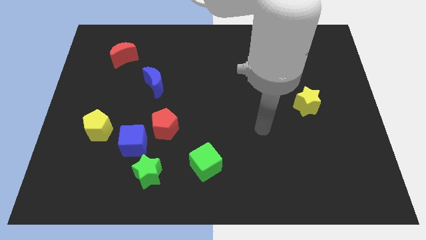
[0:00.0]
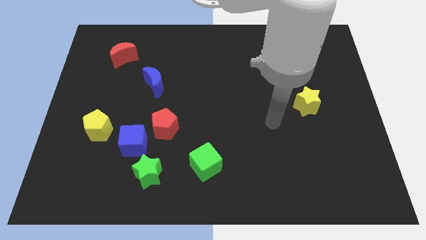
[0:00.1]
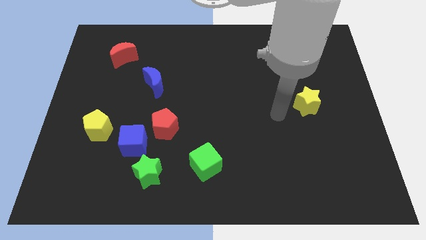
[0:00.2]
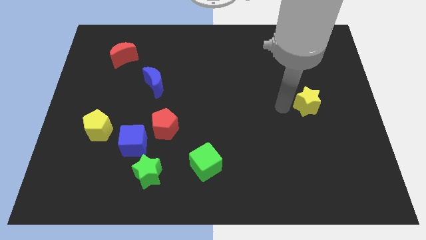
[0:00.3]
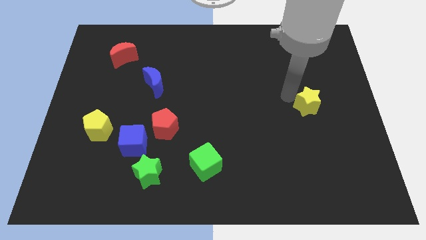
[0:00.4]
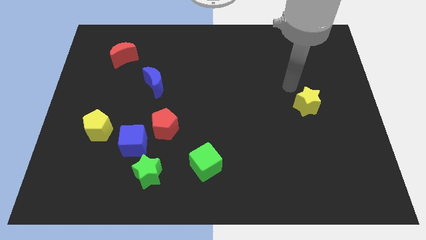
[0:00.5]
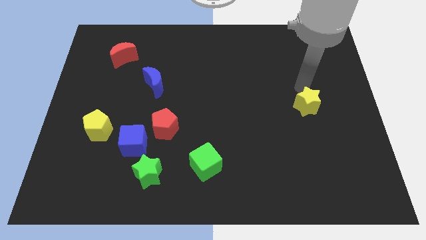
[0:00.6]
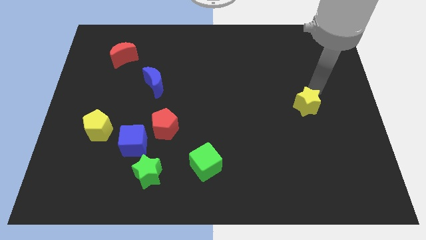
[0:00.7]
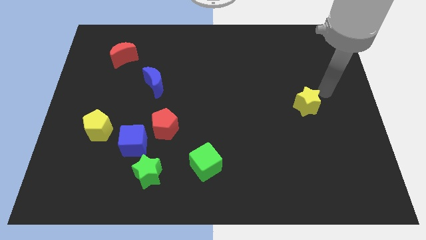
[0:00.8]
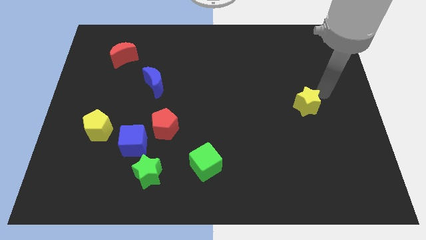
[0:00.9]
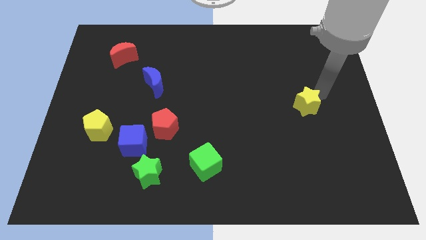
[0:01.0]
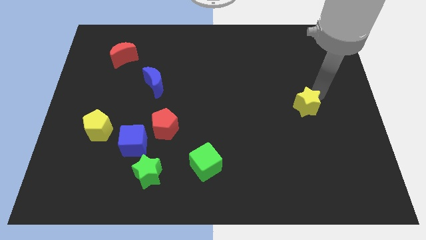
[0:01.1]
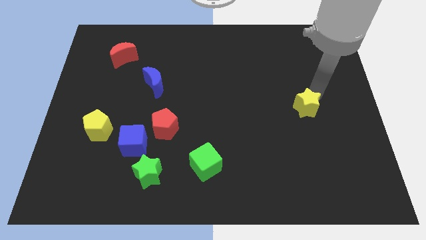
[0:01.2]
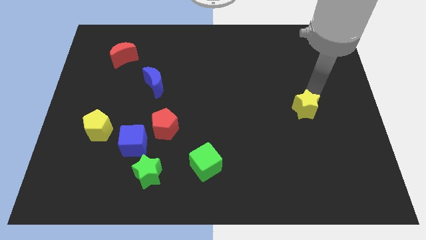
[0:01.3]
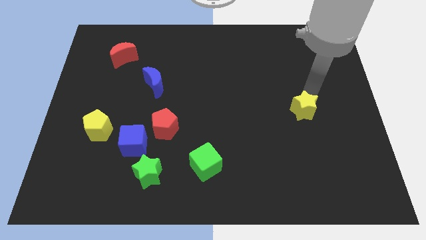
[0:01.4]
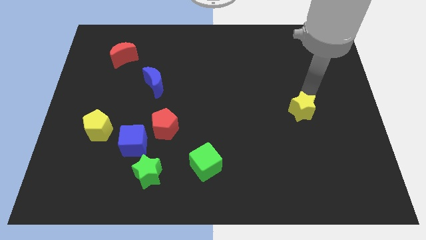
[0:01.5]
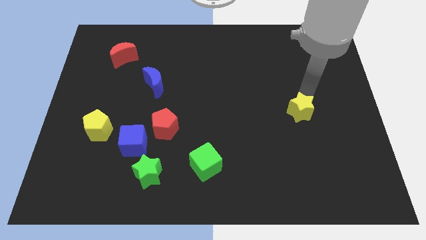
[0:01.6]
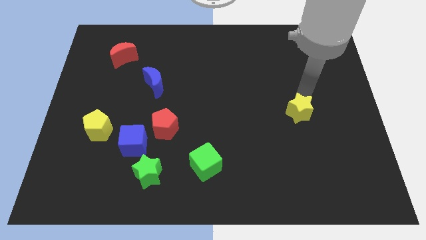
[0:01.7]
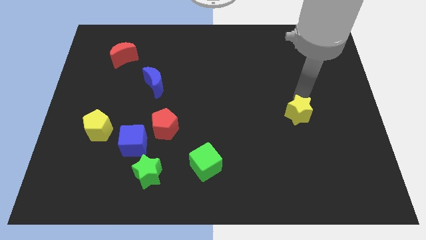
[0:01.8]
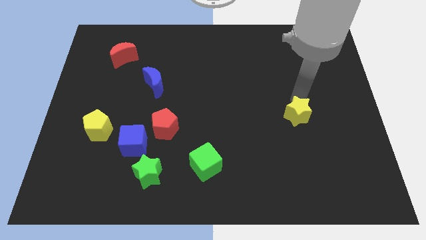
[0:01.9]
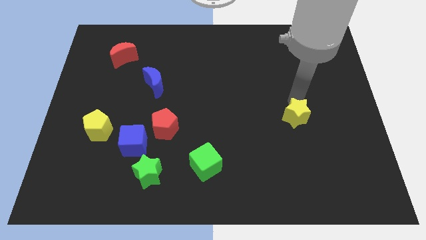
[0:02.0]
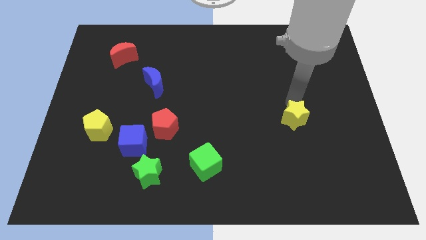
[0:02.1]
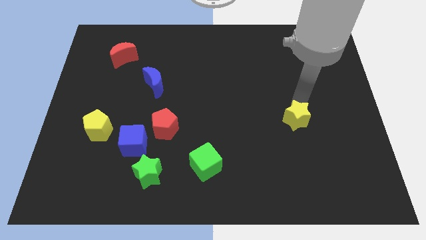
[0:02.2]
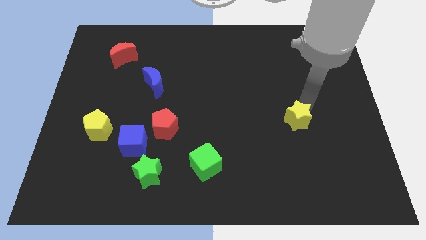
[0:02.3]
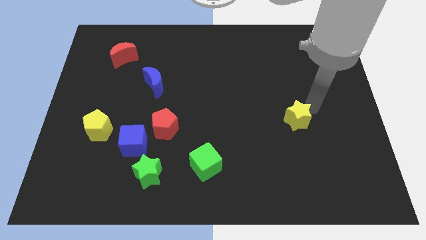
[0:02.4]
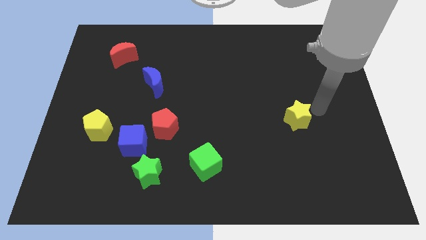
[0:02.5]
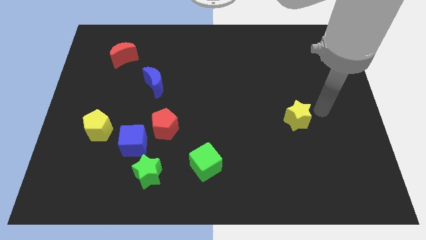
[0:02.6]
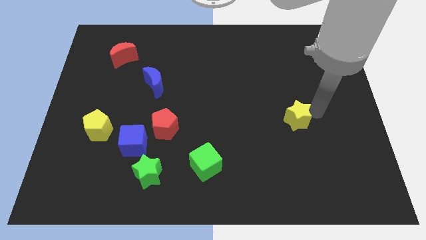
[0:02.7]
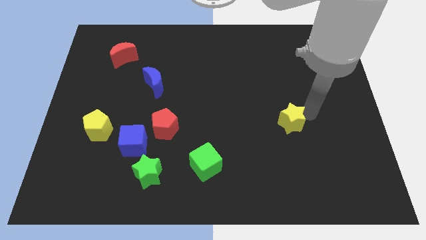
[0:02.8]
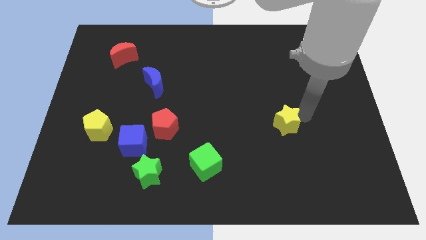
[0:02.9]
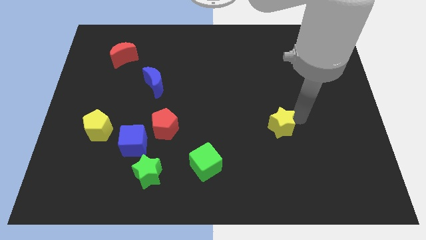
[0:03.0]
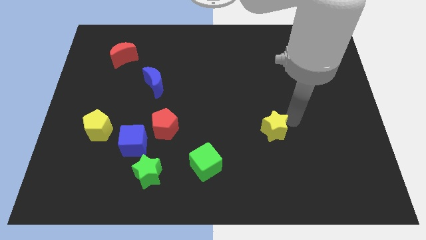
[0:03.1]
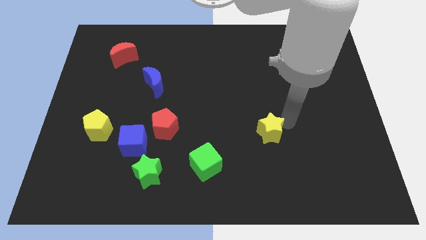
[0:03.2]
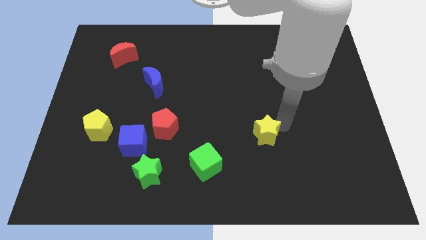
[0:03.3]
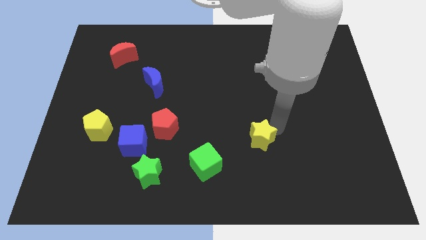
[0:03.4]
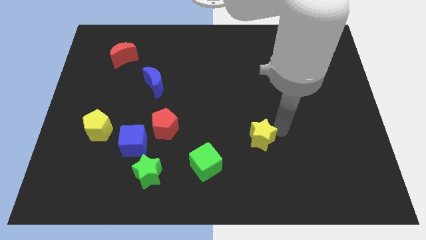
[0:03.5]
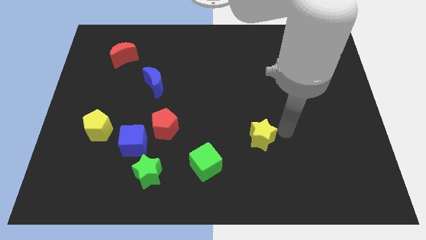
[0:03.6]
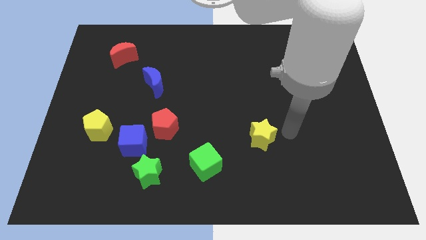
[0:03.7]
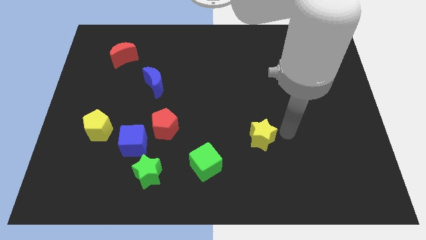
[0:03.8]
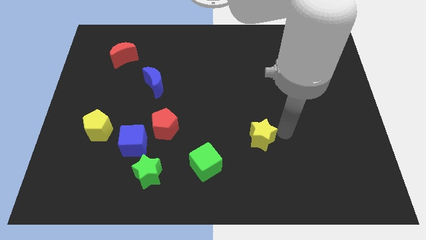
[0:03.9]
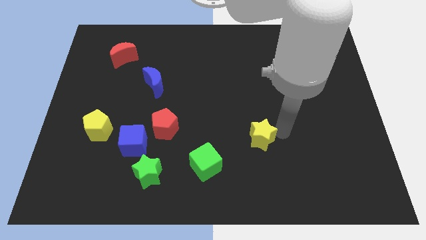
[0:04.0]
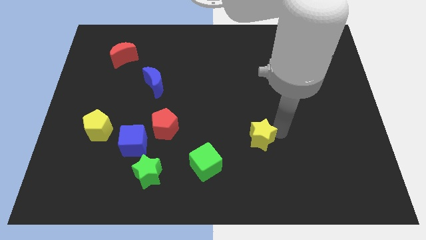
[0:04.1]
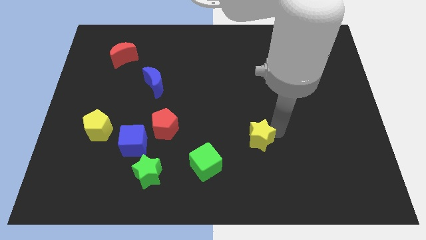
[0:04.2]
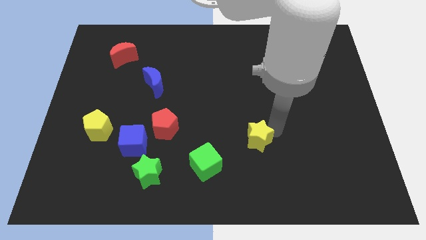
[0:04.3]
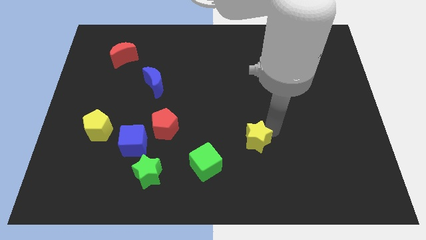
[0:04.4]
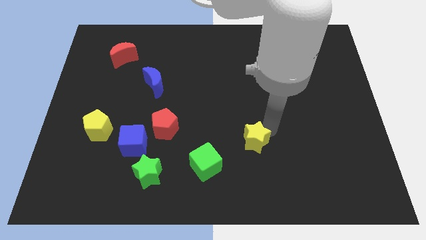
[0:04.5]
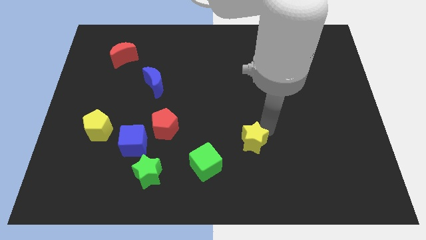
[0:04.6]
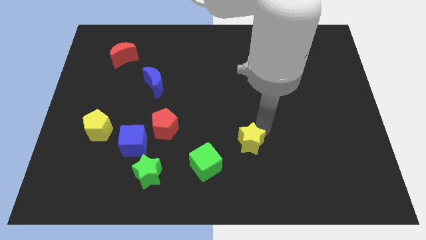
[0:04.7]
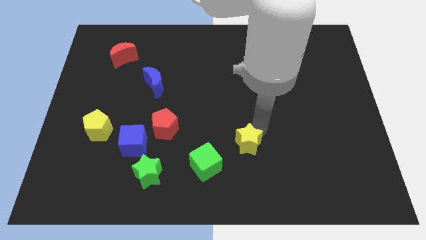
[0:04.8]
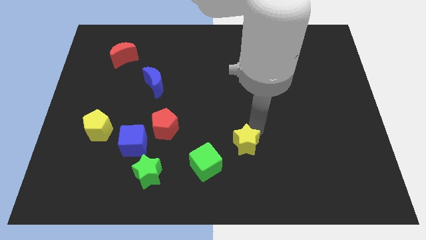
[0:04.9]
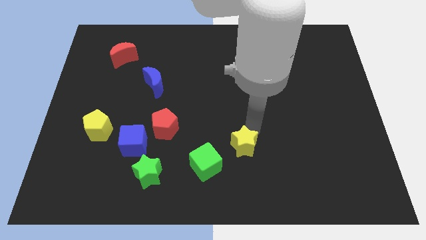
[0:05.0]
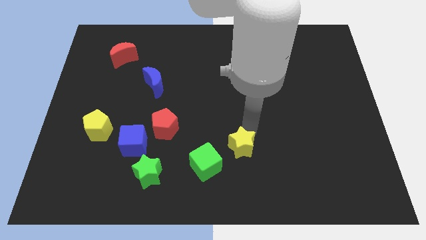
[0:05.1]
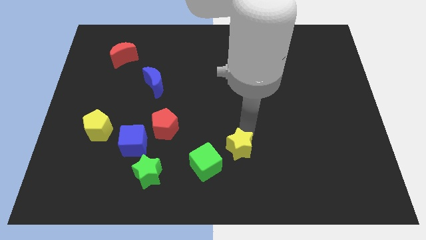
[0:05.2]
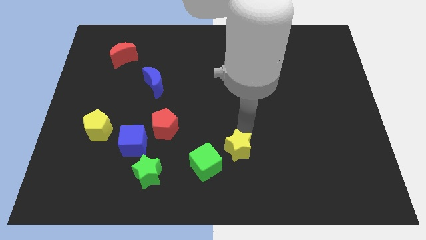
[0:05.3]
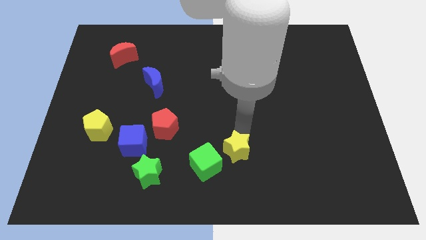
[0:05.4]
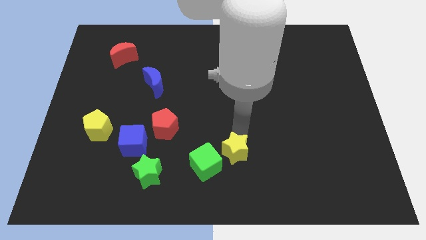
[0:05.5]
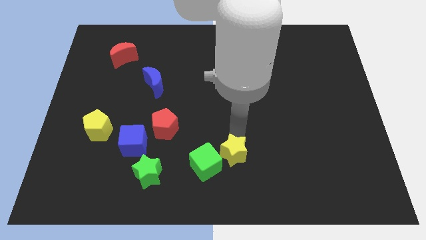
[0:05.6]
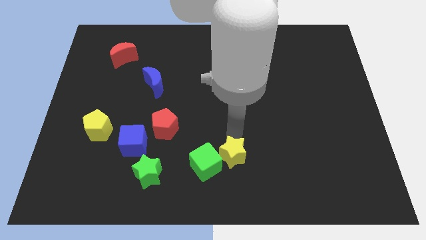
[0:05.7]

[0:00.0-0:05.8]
slide the yellow star to the green cube

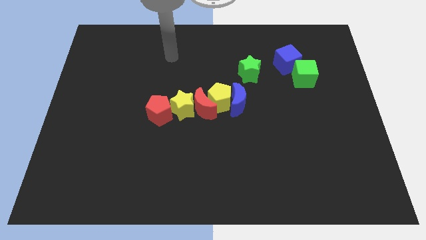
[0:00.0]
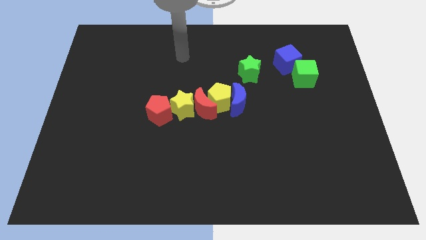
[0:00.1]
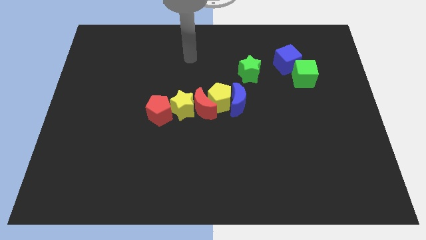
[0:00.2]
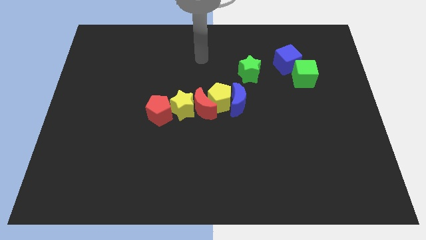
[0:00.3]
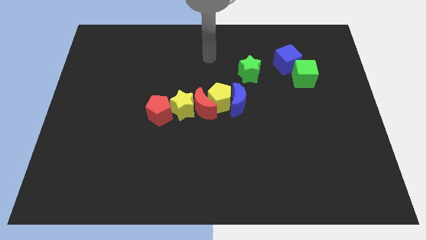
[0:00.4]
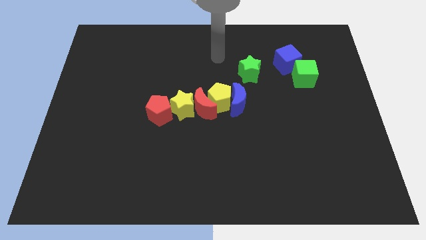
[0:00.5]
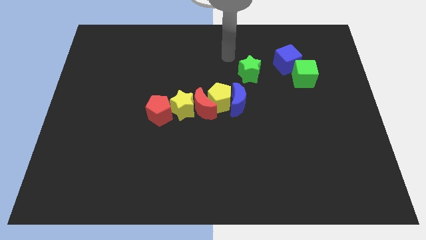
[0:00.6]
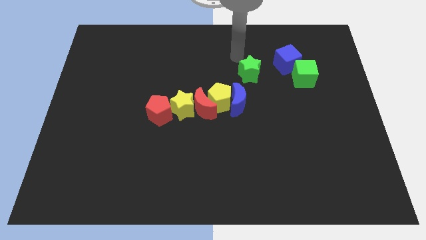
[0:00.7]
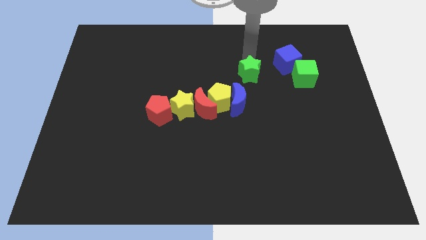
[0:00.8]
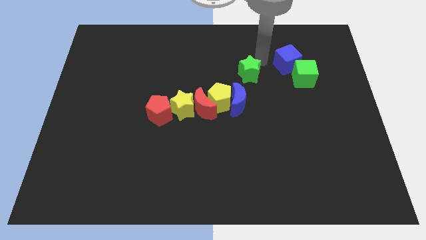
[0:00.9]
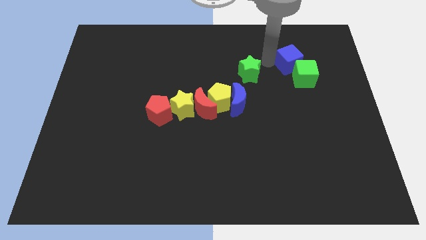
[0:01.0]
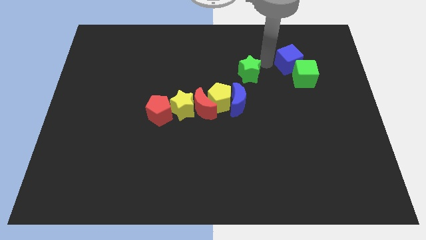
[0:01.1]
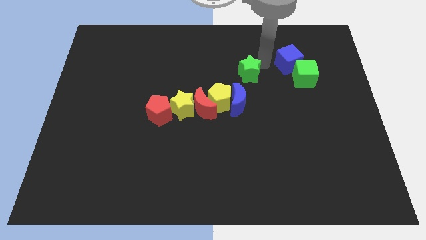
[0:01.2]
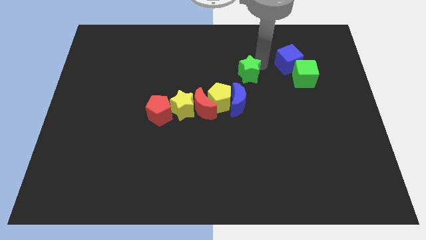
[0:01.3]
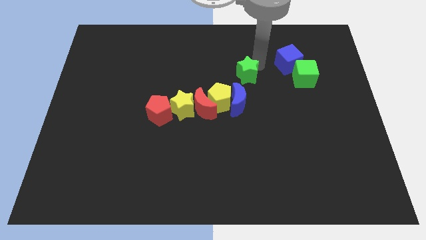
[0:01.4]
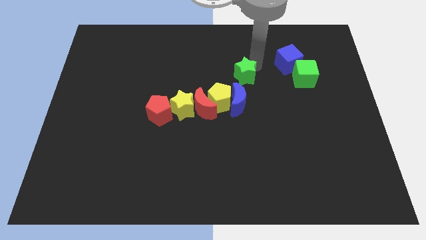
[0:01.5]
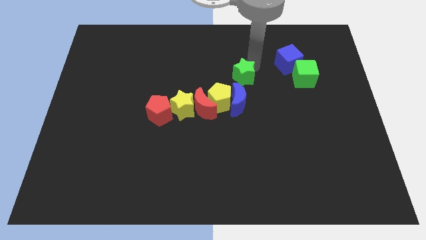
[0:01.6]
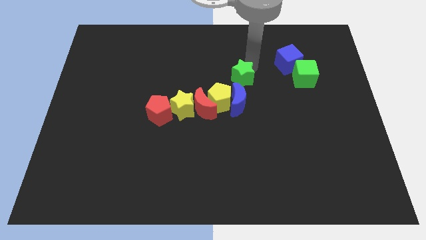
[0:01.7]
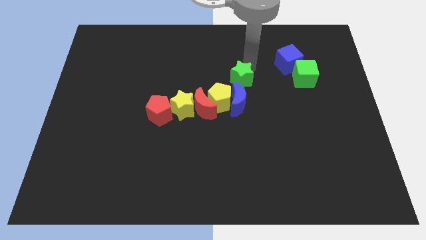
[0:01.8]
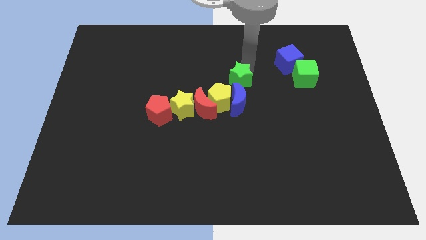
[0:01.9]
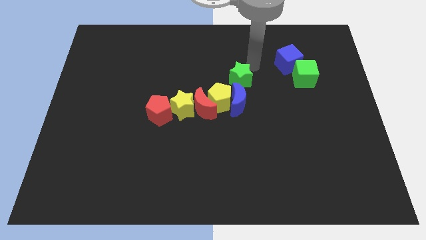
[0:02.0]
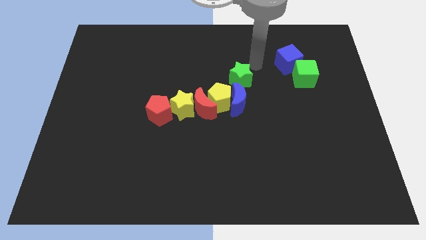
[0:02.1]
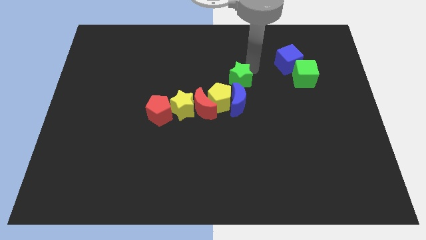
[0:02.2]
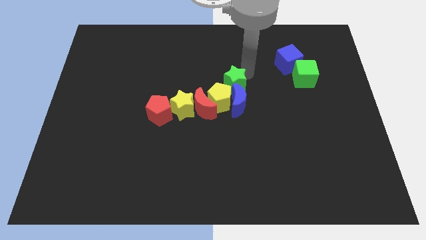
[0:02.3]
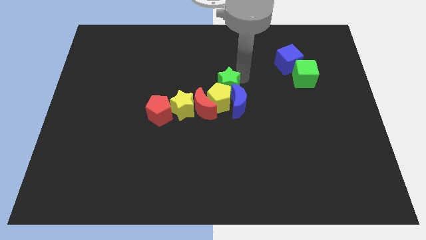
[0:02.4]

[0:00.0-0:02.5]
move the green star towards the yellow pentagon
